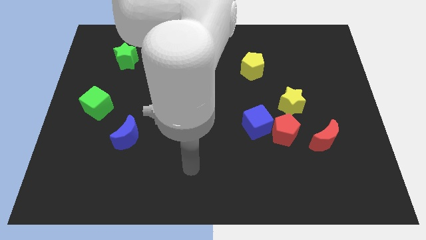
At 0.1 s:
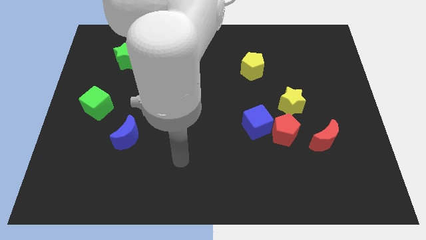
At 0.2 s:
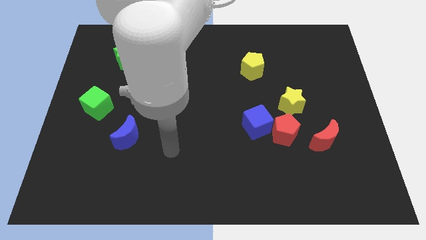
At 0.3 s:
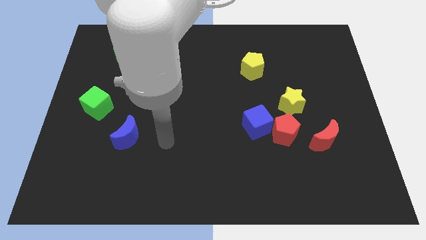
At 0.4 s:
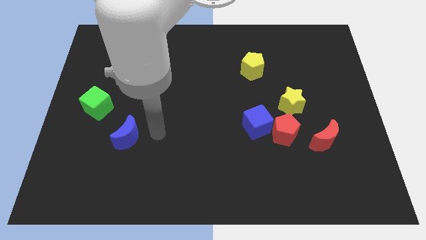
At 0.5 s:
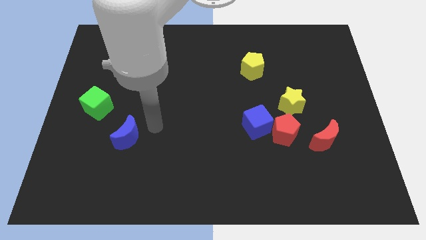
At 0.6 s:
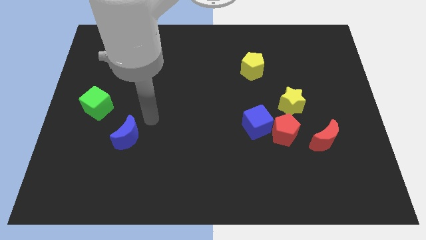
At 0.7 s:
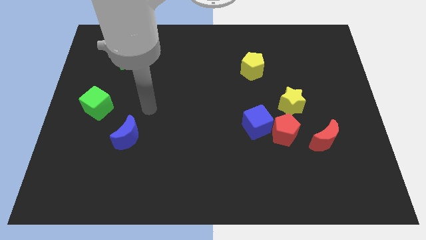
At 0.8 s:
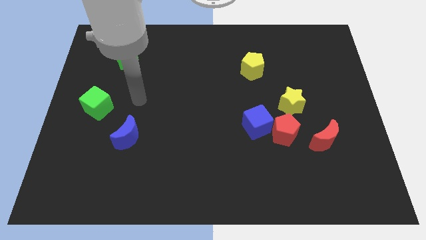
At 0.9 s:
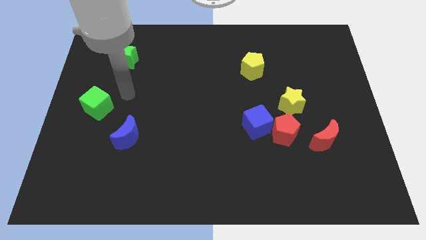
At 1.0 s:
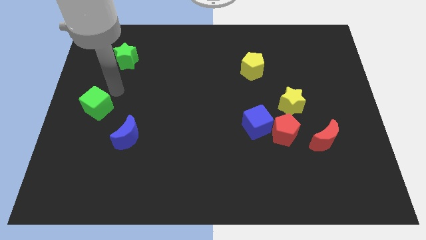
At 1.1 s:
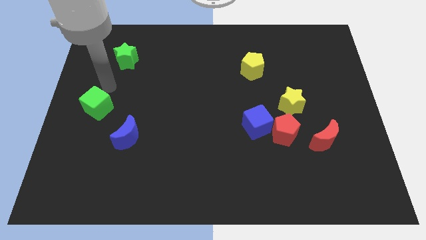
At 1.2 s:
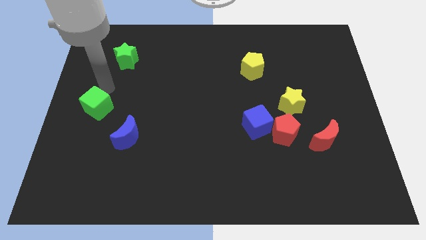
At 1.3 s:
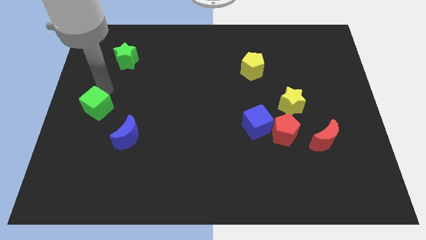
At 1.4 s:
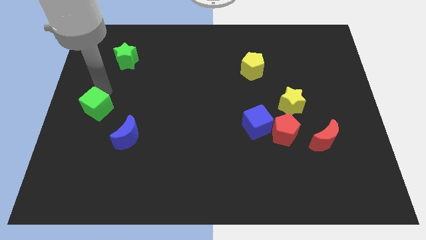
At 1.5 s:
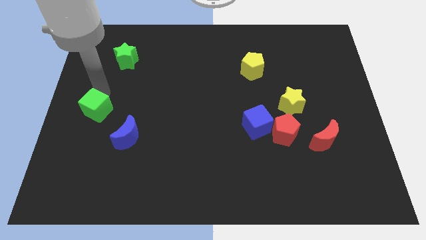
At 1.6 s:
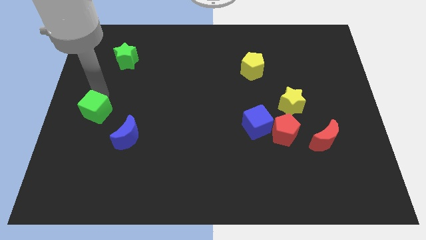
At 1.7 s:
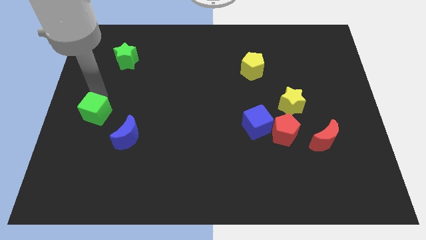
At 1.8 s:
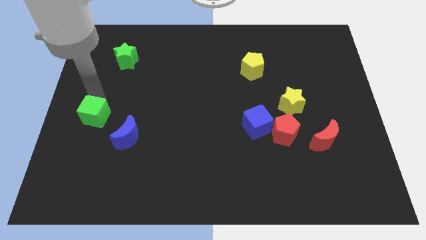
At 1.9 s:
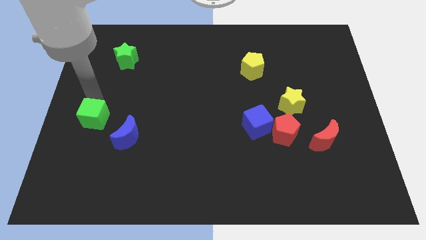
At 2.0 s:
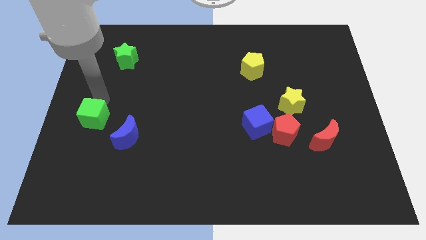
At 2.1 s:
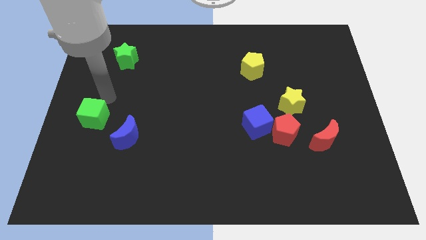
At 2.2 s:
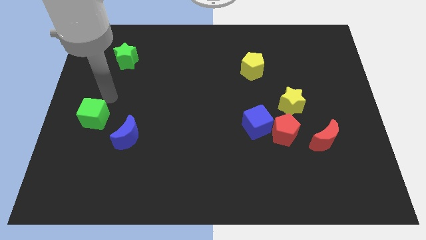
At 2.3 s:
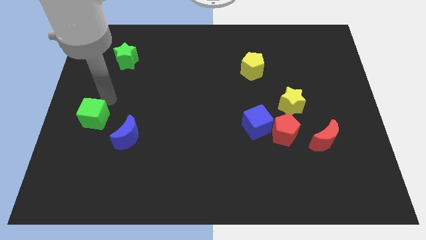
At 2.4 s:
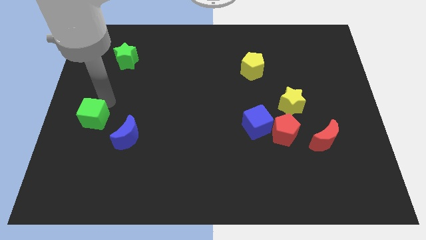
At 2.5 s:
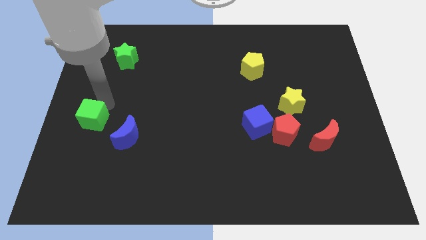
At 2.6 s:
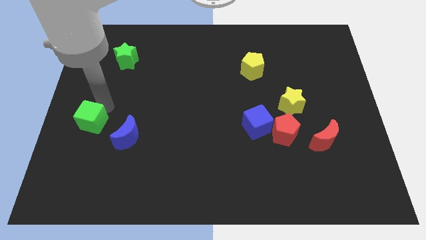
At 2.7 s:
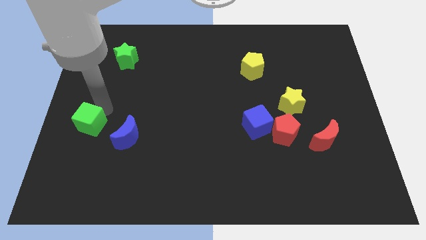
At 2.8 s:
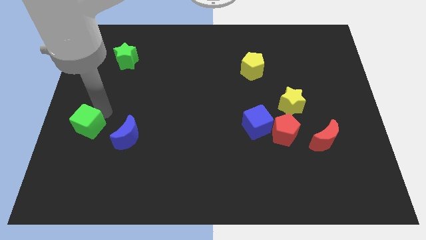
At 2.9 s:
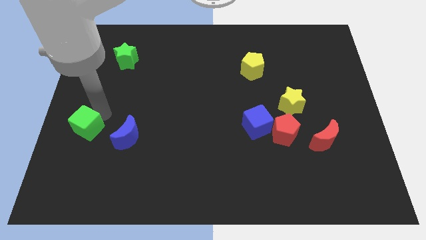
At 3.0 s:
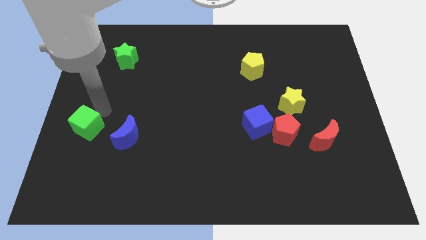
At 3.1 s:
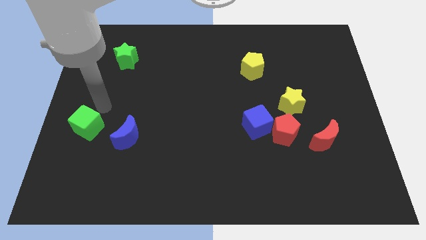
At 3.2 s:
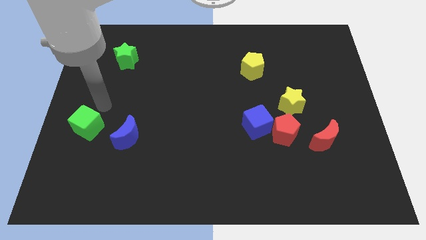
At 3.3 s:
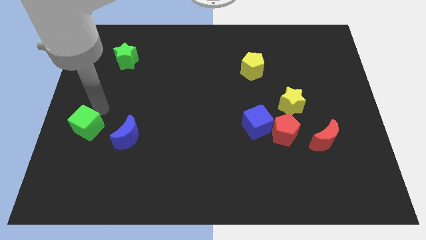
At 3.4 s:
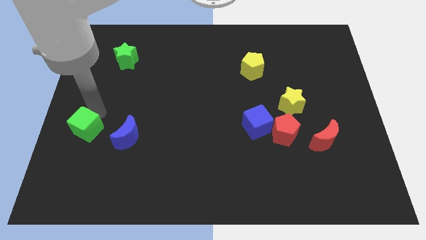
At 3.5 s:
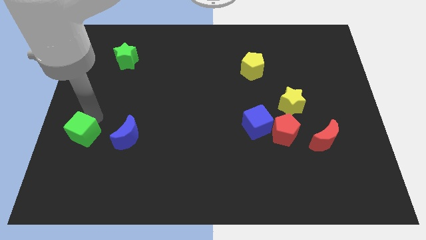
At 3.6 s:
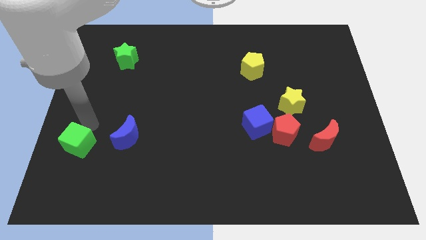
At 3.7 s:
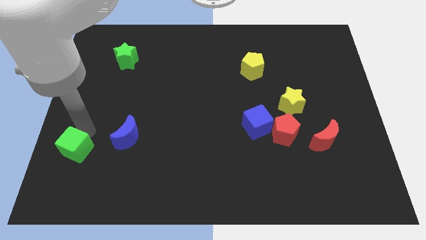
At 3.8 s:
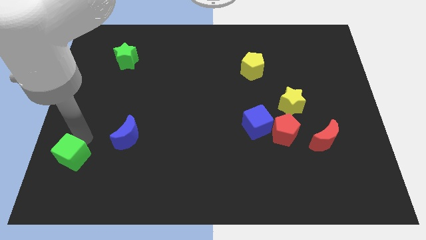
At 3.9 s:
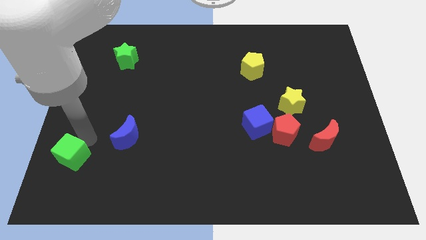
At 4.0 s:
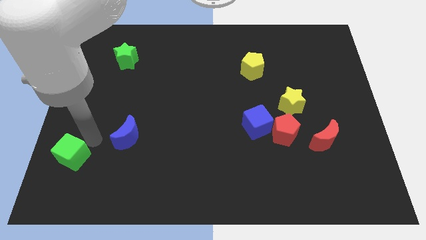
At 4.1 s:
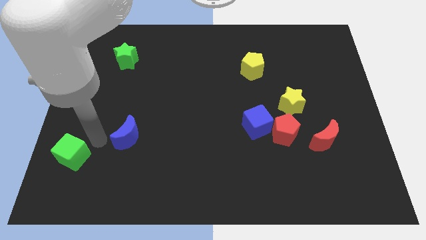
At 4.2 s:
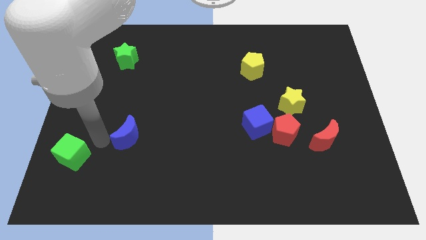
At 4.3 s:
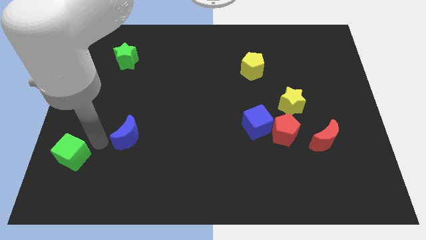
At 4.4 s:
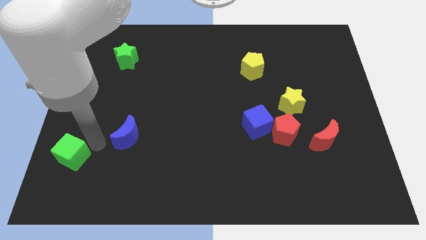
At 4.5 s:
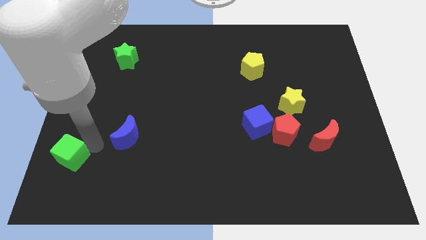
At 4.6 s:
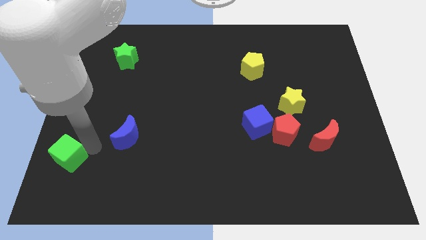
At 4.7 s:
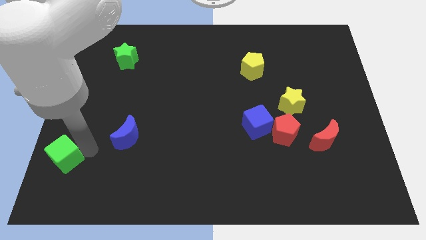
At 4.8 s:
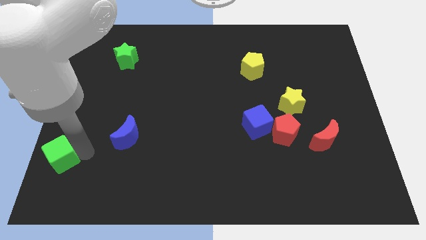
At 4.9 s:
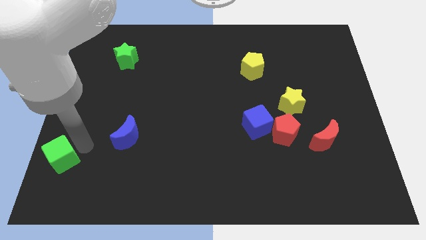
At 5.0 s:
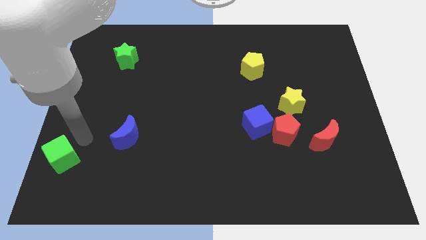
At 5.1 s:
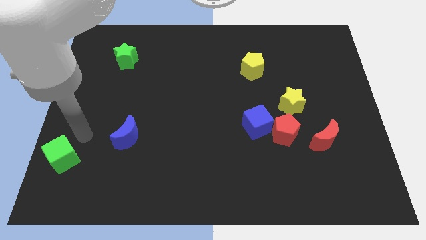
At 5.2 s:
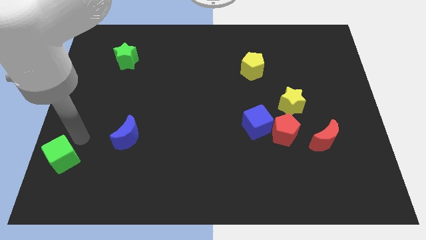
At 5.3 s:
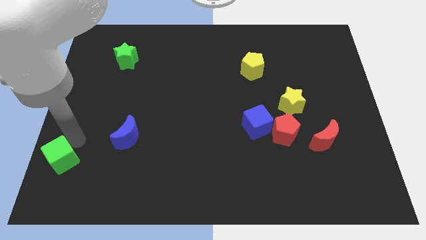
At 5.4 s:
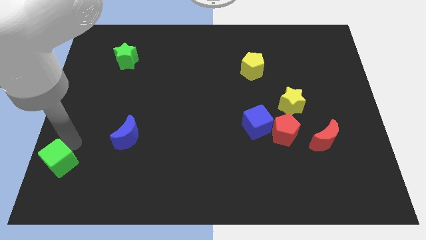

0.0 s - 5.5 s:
move the green cube to the lower left corner

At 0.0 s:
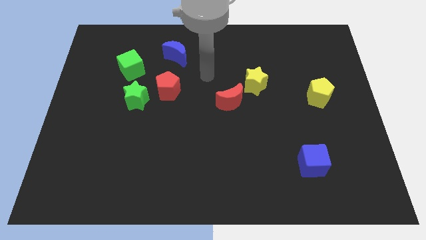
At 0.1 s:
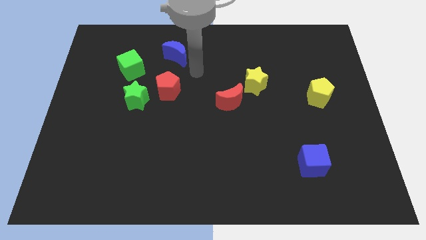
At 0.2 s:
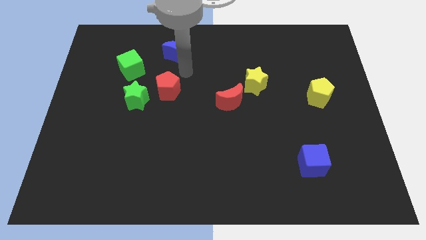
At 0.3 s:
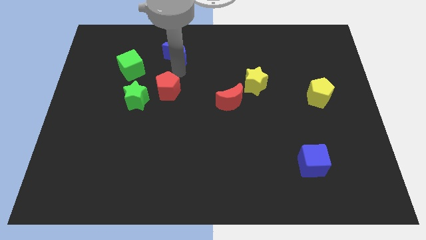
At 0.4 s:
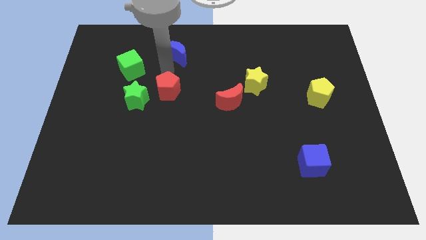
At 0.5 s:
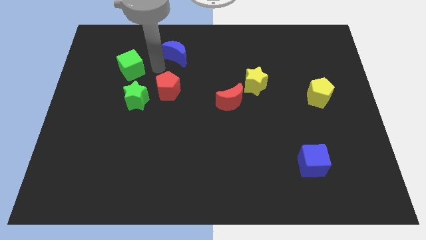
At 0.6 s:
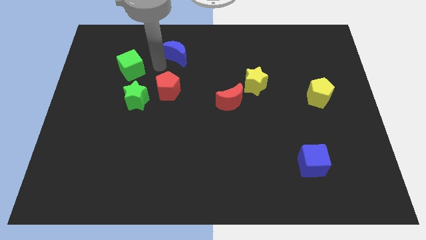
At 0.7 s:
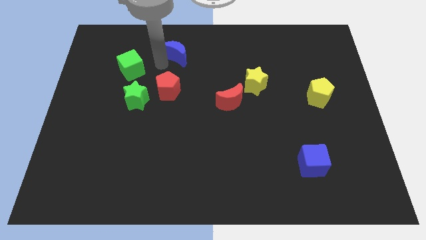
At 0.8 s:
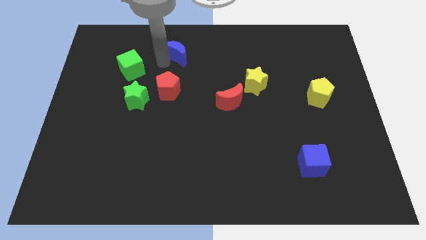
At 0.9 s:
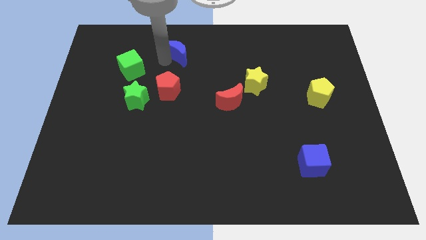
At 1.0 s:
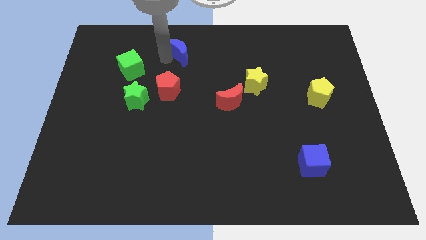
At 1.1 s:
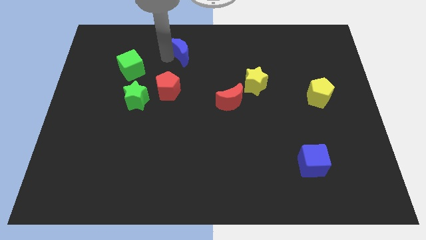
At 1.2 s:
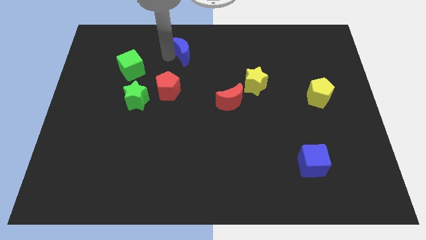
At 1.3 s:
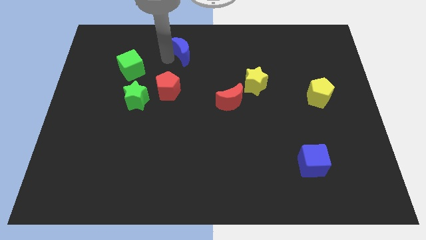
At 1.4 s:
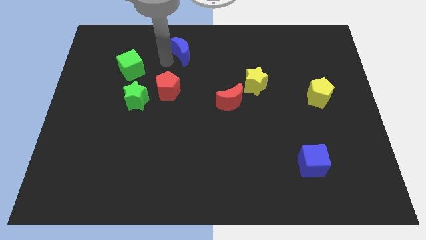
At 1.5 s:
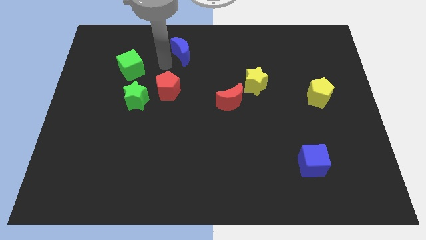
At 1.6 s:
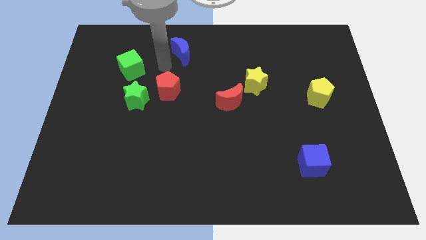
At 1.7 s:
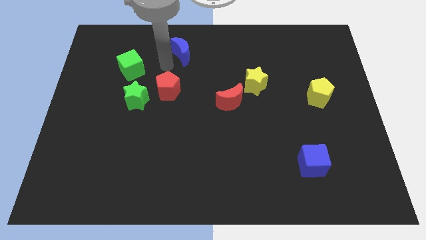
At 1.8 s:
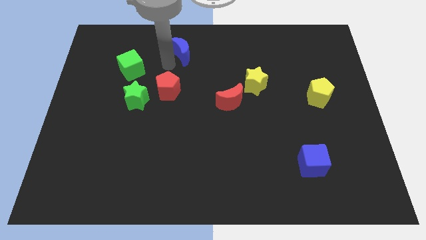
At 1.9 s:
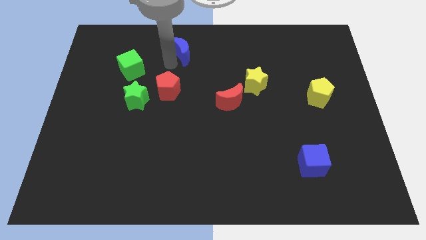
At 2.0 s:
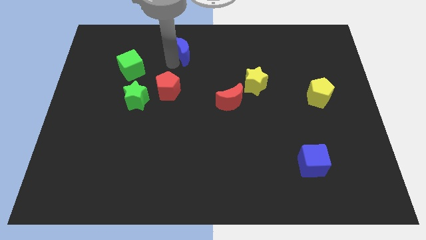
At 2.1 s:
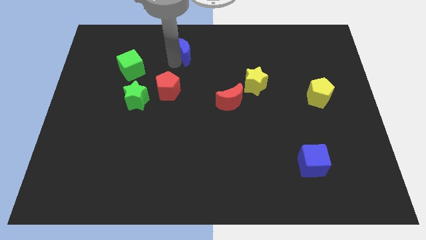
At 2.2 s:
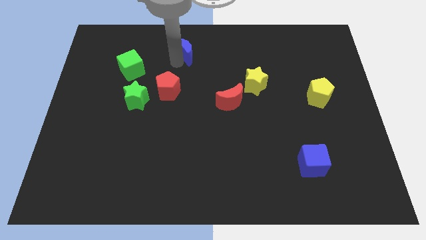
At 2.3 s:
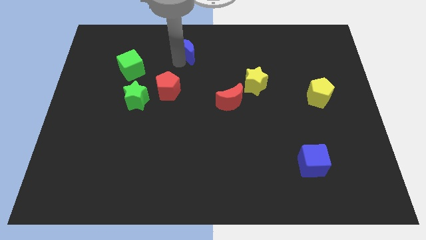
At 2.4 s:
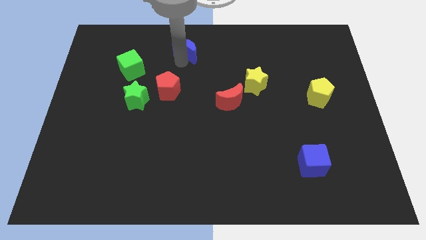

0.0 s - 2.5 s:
move the blue moon to the towards your base
